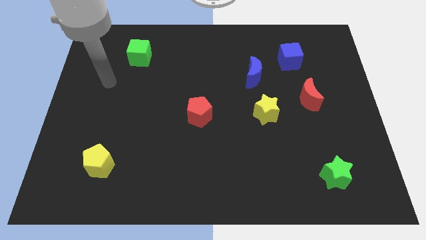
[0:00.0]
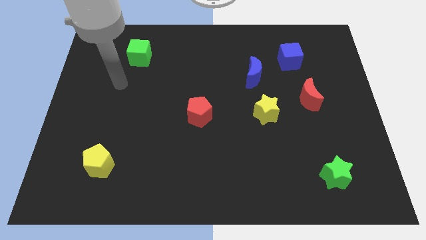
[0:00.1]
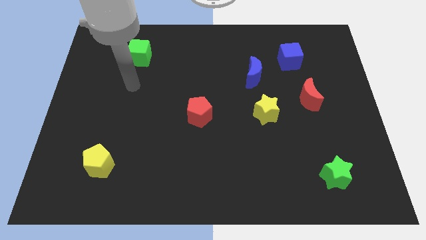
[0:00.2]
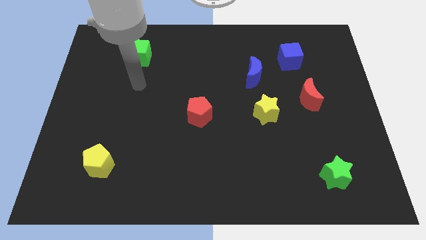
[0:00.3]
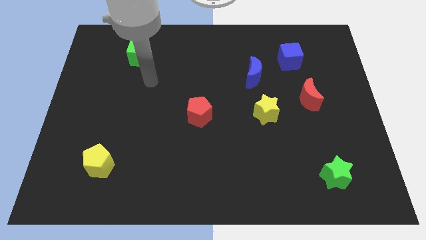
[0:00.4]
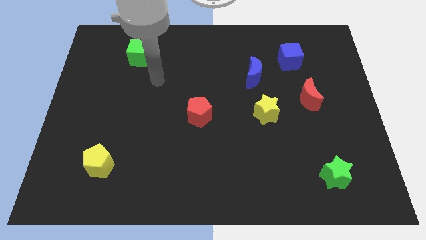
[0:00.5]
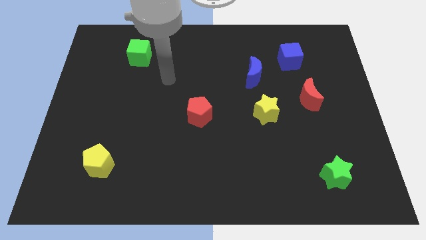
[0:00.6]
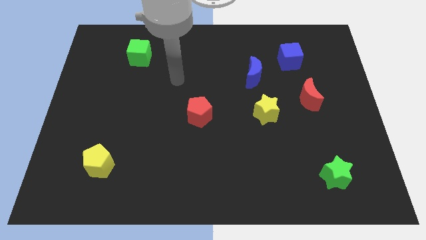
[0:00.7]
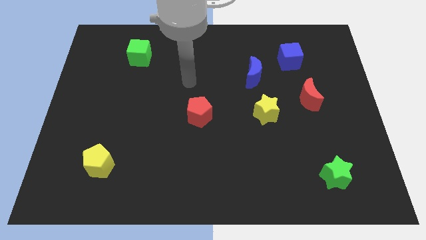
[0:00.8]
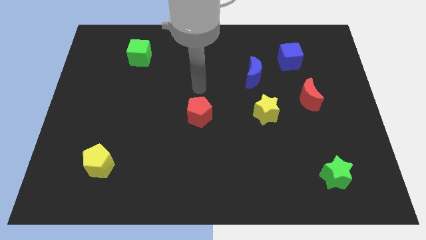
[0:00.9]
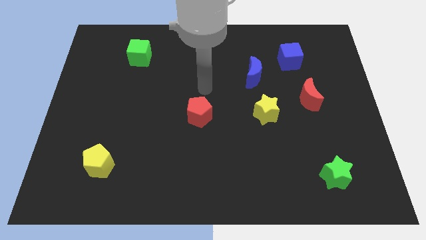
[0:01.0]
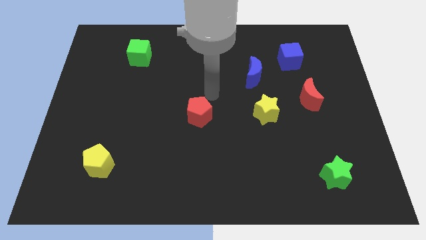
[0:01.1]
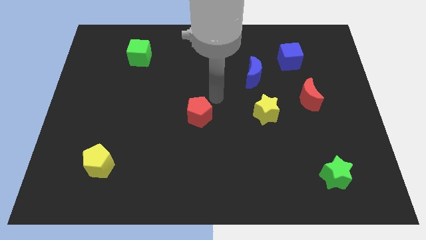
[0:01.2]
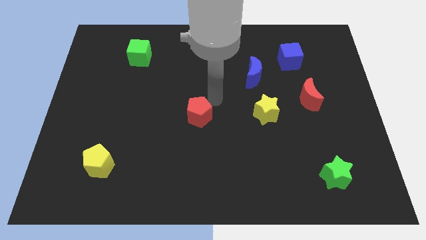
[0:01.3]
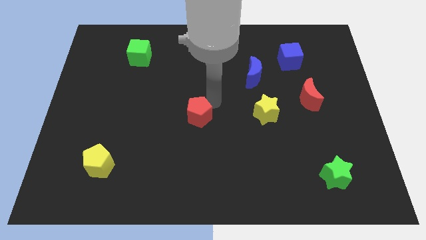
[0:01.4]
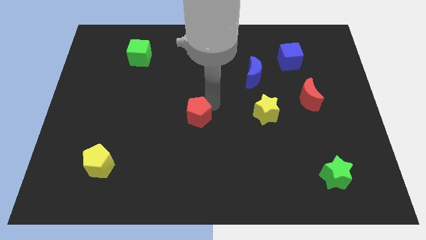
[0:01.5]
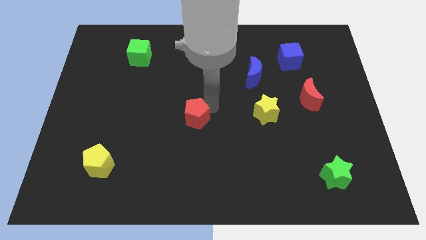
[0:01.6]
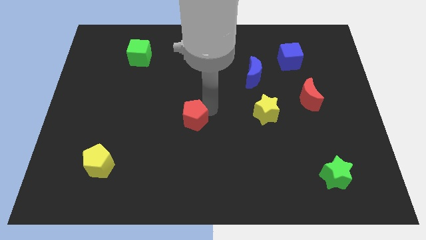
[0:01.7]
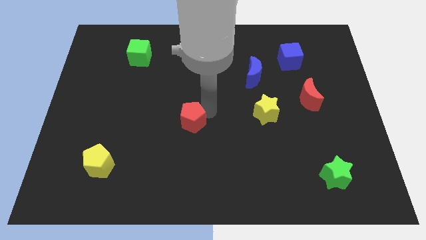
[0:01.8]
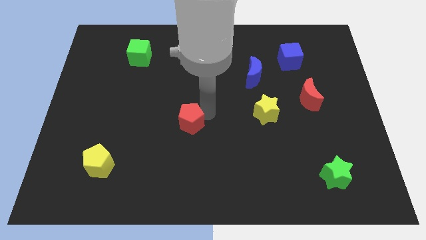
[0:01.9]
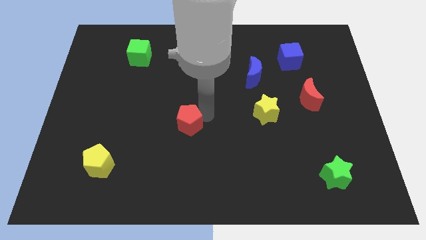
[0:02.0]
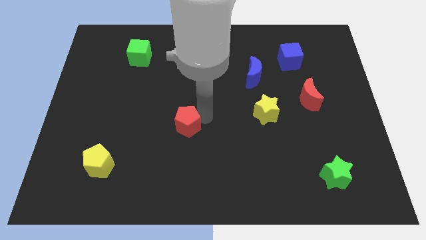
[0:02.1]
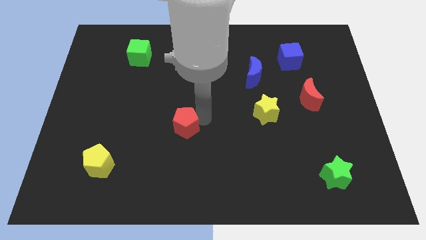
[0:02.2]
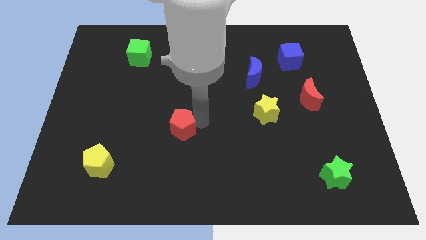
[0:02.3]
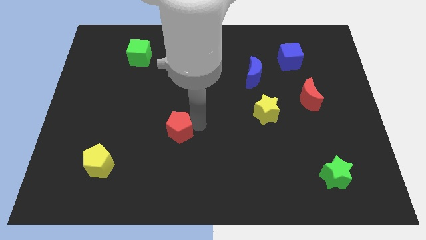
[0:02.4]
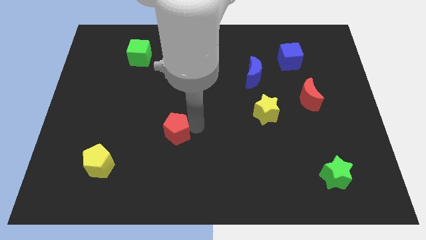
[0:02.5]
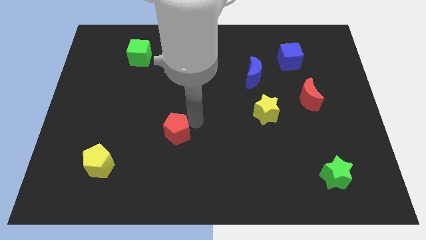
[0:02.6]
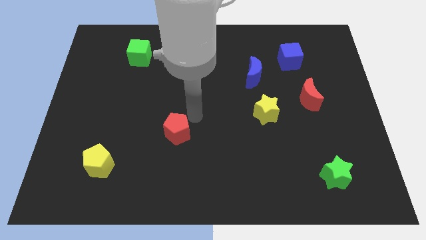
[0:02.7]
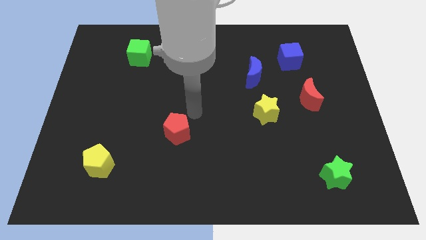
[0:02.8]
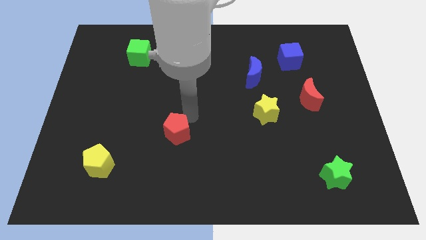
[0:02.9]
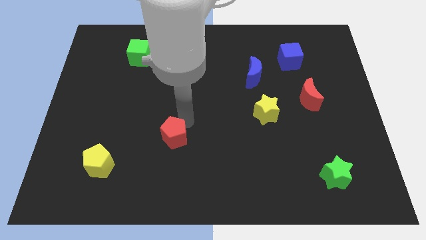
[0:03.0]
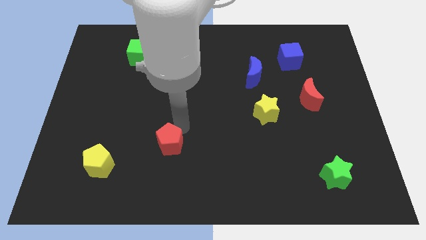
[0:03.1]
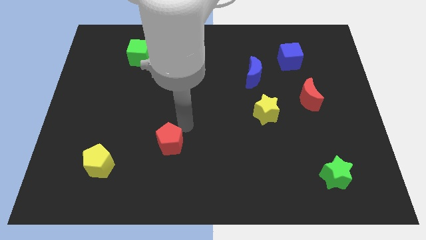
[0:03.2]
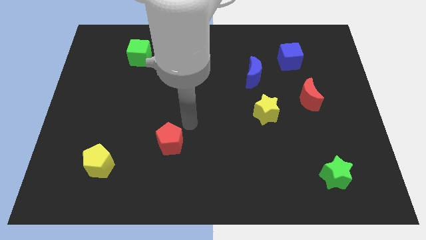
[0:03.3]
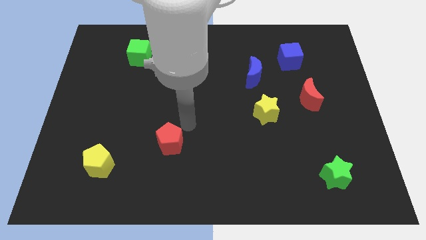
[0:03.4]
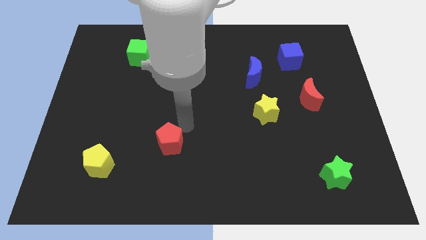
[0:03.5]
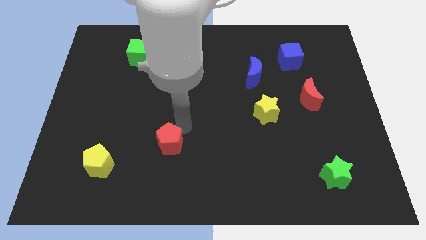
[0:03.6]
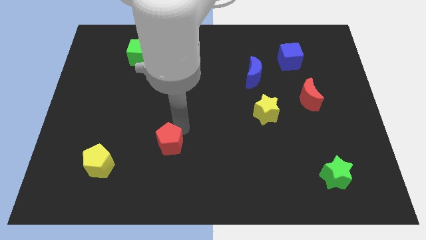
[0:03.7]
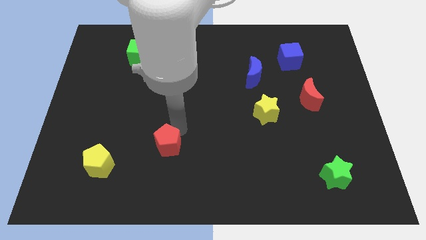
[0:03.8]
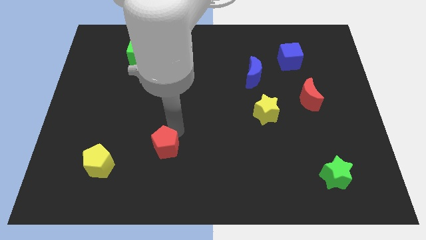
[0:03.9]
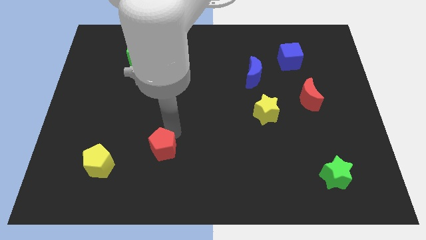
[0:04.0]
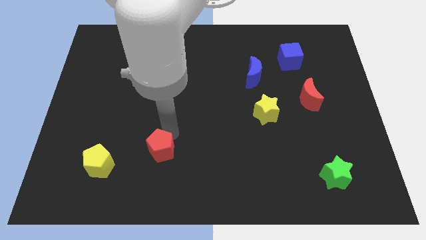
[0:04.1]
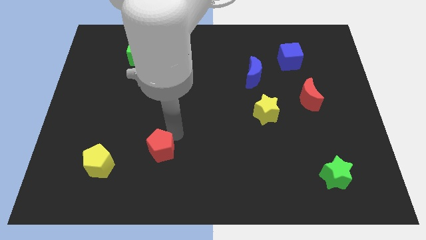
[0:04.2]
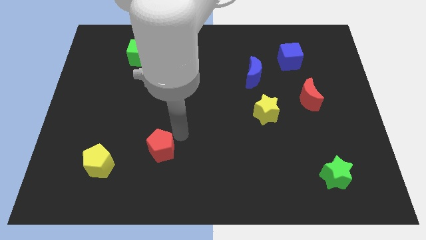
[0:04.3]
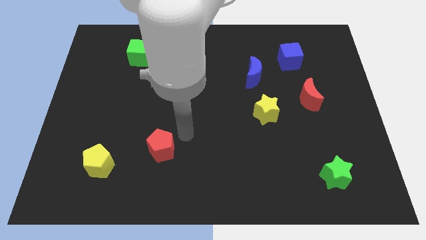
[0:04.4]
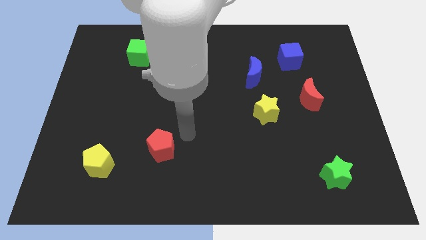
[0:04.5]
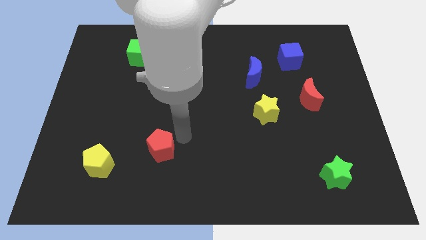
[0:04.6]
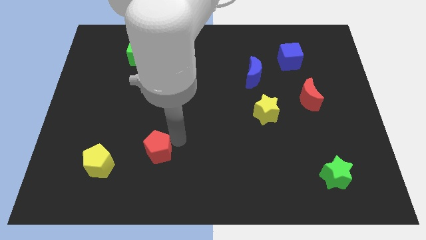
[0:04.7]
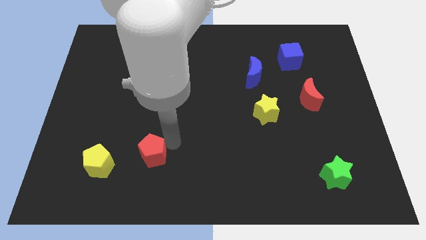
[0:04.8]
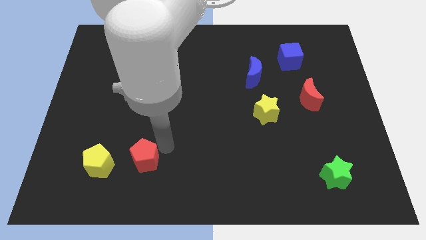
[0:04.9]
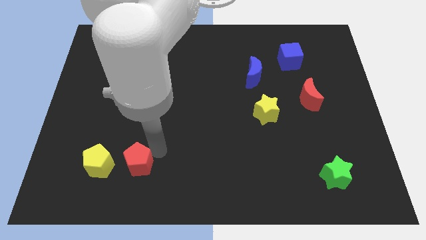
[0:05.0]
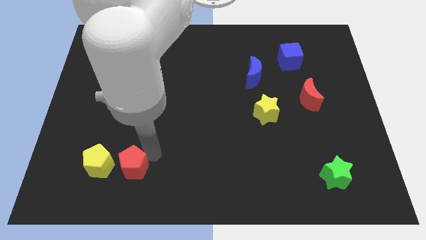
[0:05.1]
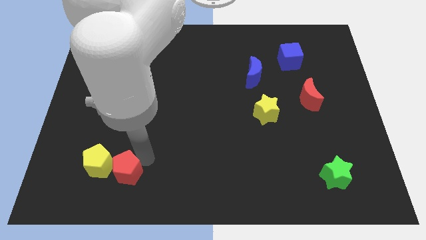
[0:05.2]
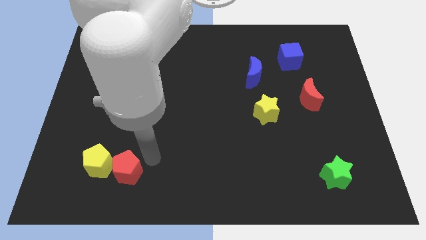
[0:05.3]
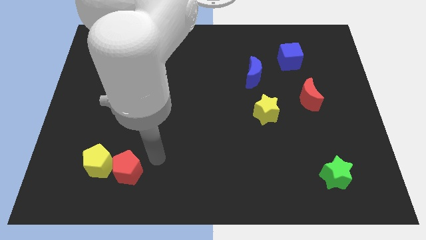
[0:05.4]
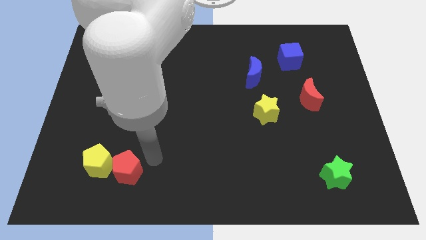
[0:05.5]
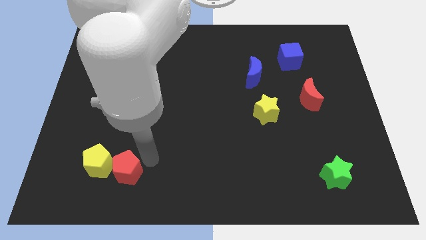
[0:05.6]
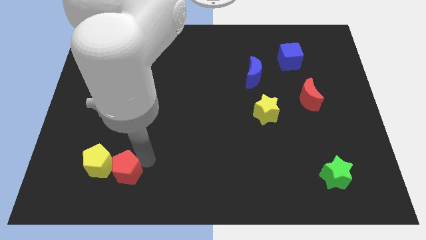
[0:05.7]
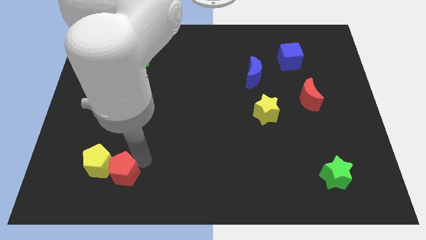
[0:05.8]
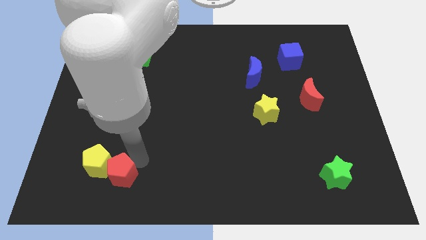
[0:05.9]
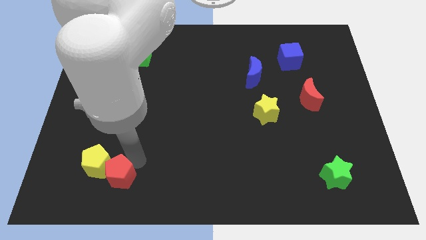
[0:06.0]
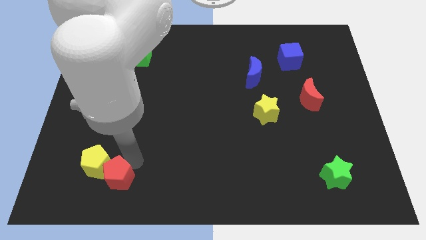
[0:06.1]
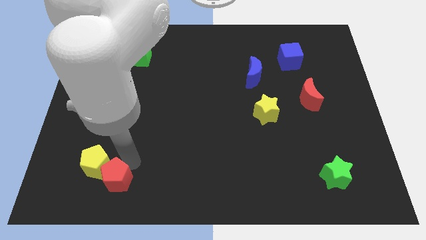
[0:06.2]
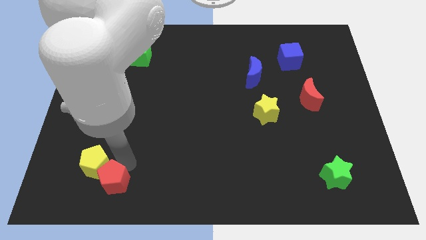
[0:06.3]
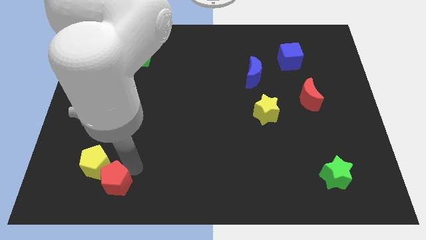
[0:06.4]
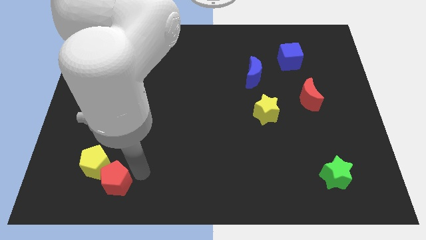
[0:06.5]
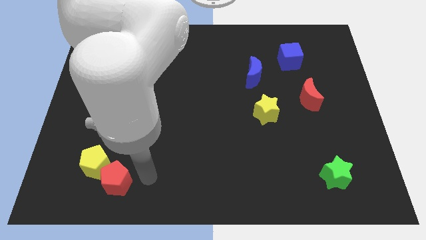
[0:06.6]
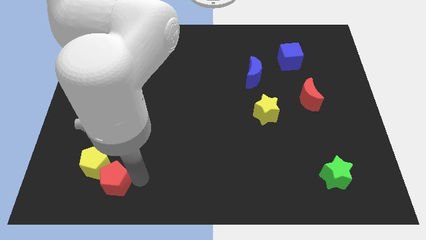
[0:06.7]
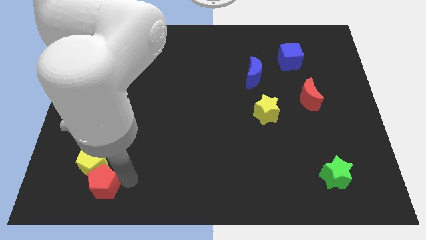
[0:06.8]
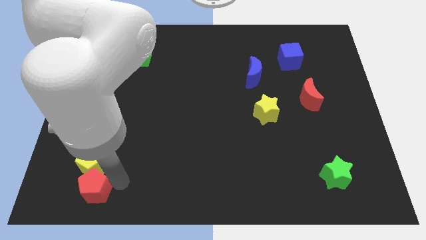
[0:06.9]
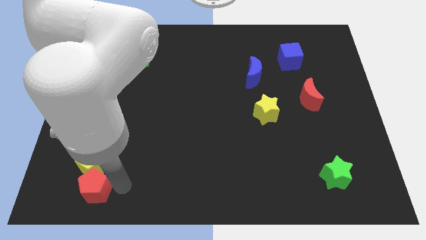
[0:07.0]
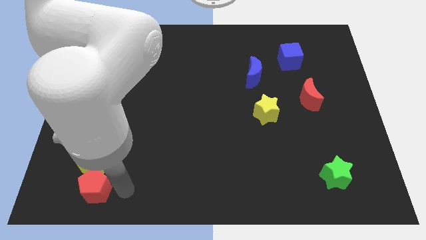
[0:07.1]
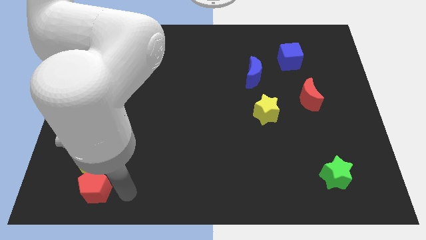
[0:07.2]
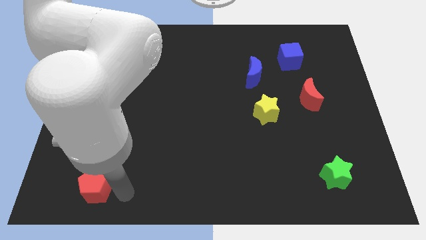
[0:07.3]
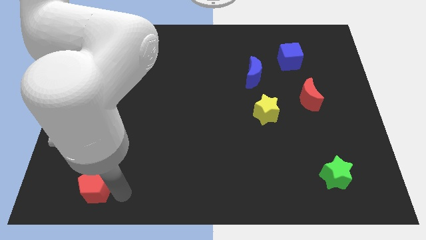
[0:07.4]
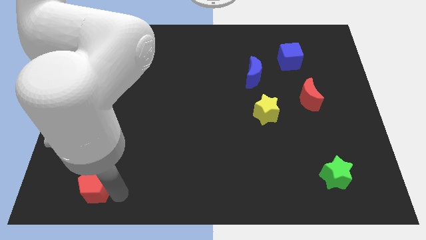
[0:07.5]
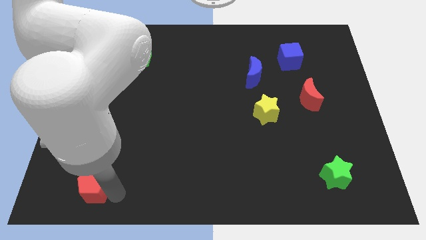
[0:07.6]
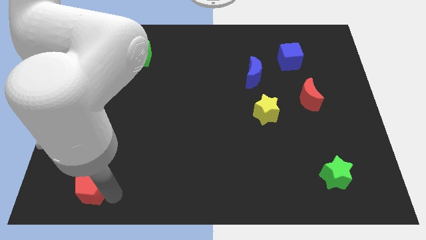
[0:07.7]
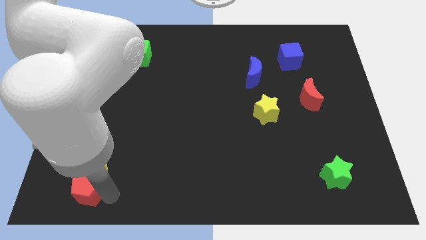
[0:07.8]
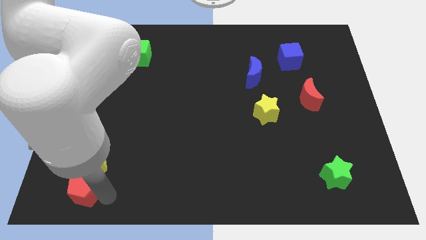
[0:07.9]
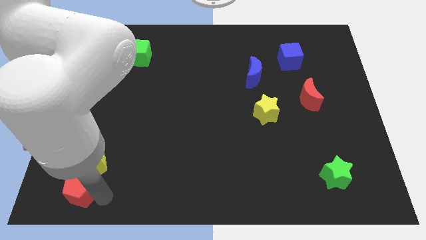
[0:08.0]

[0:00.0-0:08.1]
push the red pentagon to the bottom left
